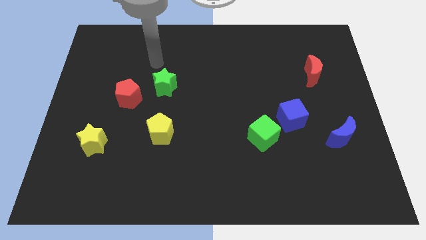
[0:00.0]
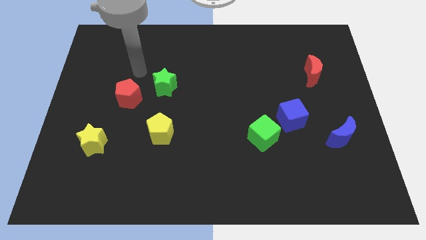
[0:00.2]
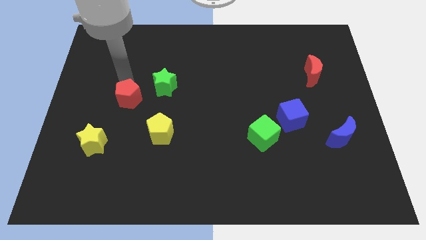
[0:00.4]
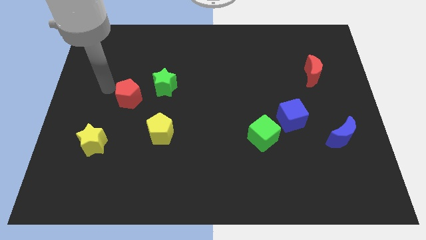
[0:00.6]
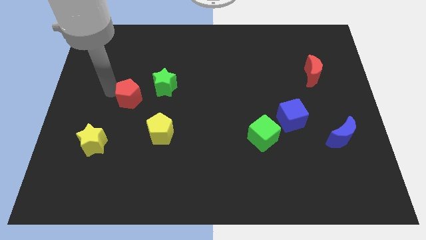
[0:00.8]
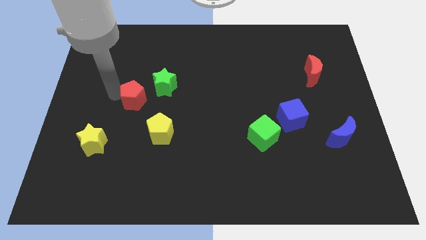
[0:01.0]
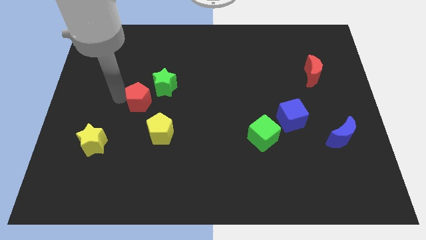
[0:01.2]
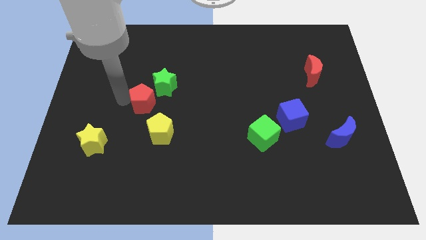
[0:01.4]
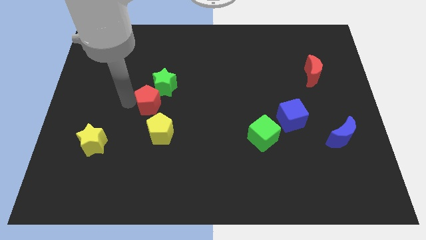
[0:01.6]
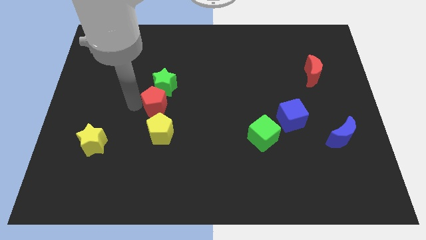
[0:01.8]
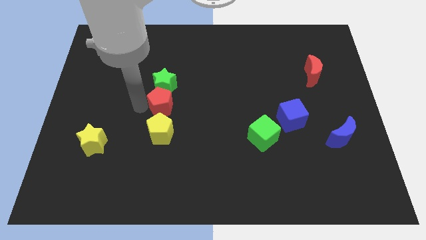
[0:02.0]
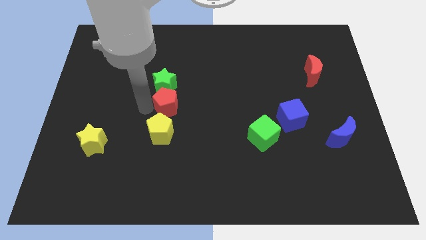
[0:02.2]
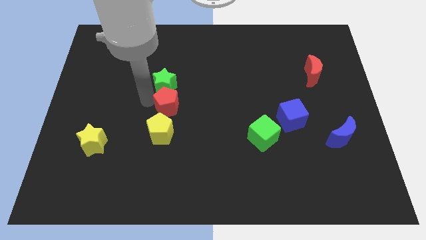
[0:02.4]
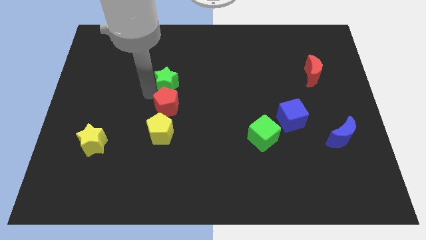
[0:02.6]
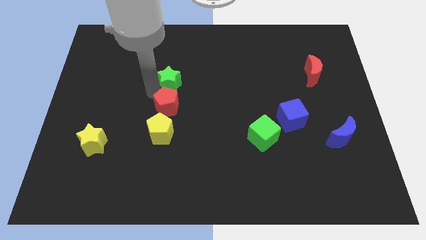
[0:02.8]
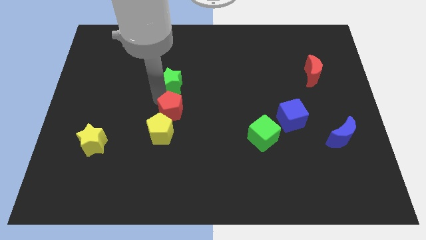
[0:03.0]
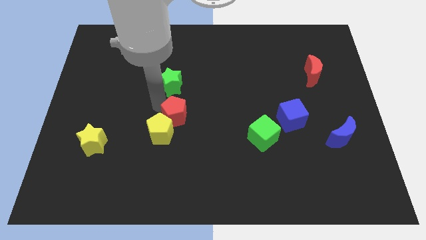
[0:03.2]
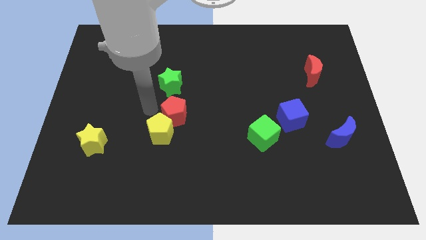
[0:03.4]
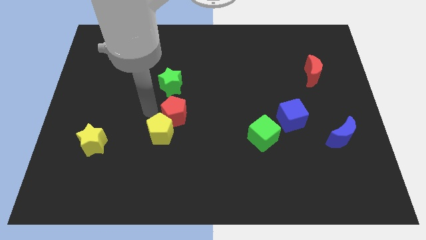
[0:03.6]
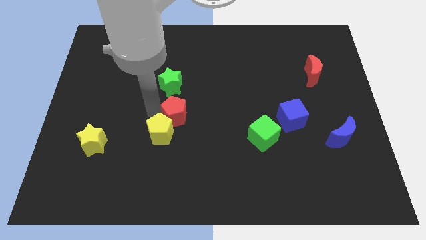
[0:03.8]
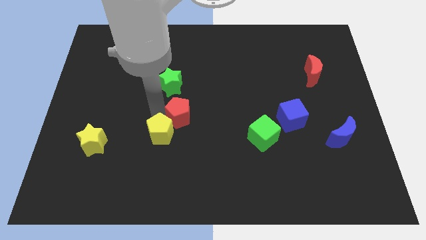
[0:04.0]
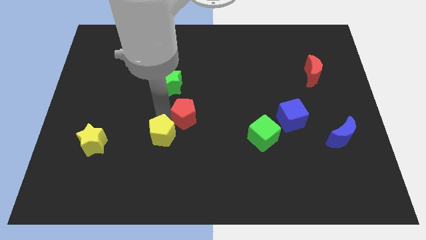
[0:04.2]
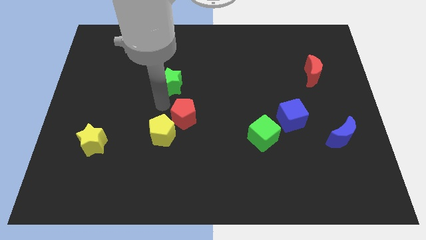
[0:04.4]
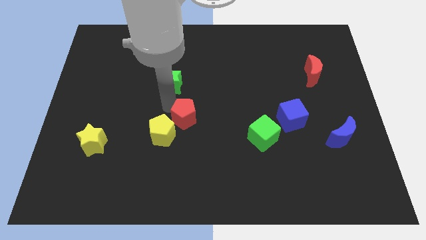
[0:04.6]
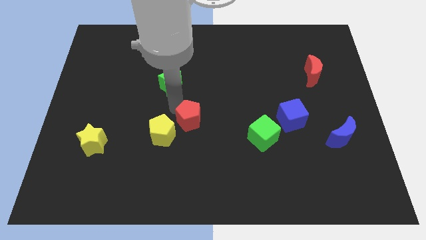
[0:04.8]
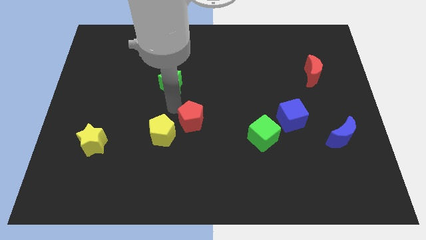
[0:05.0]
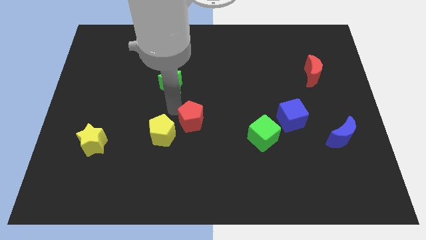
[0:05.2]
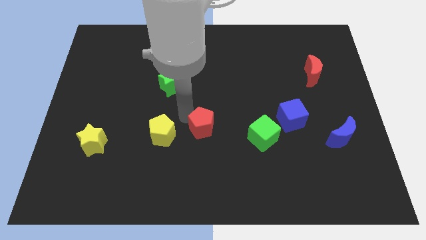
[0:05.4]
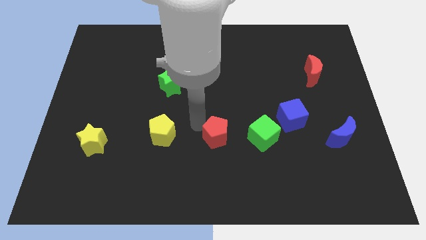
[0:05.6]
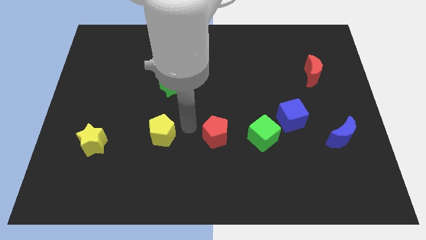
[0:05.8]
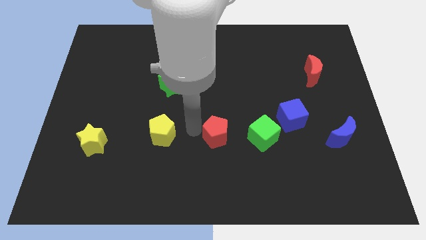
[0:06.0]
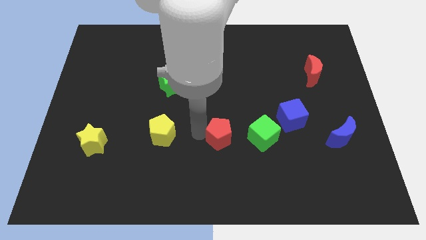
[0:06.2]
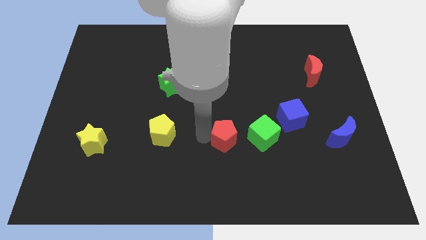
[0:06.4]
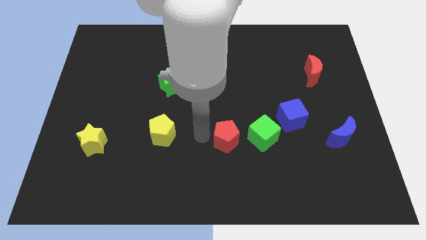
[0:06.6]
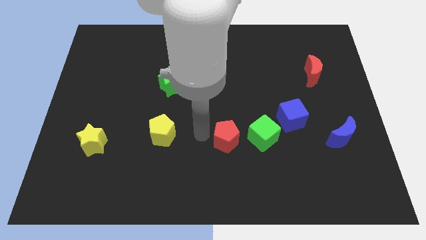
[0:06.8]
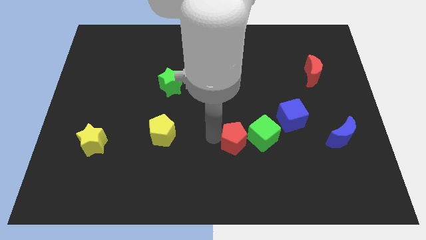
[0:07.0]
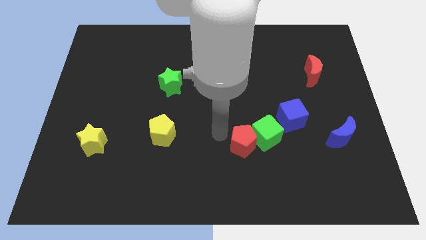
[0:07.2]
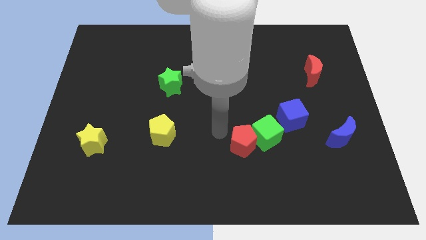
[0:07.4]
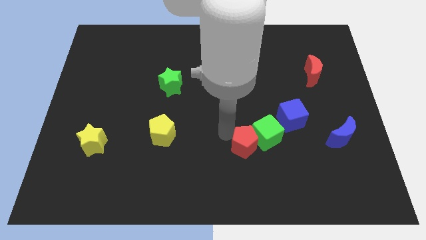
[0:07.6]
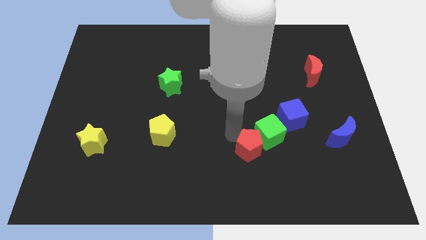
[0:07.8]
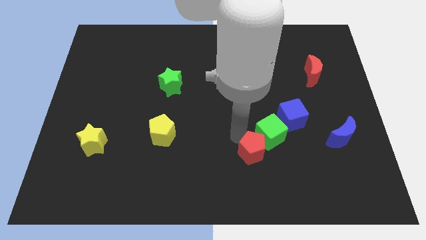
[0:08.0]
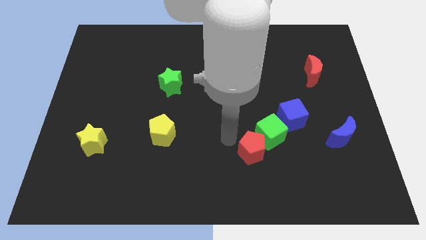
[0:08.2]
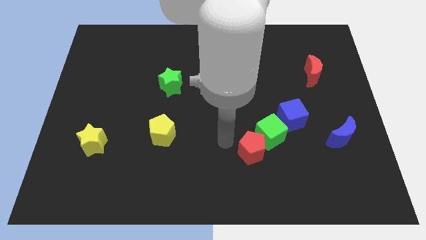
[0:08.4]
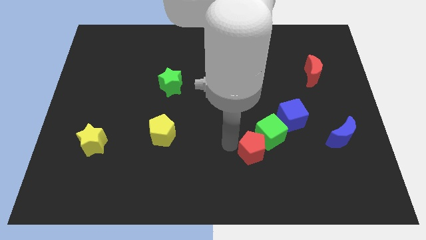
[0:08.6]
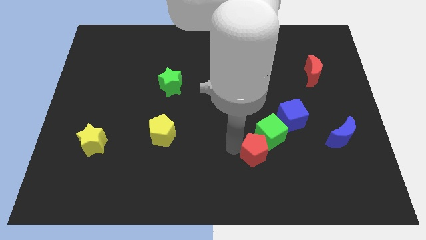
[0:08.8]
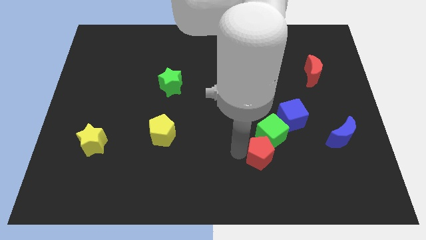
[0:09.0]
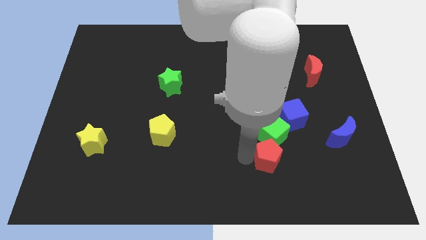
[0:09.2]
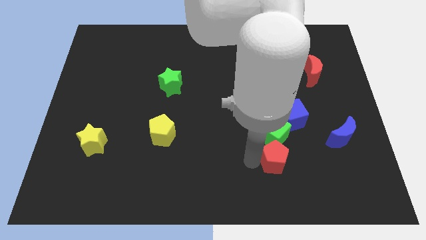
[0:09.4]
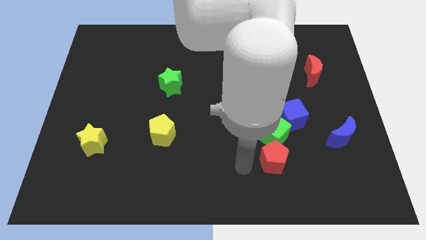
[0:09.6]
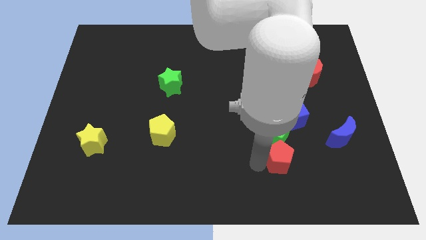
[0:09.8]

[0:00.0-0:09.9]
put the red pentagon to the bottom right of the green cube

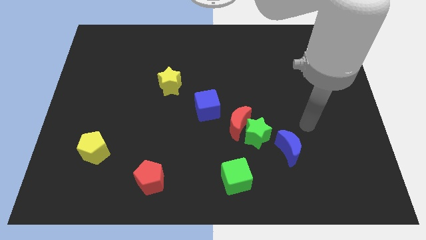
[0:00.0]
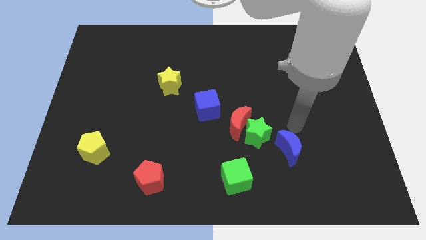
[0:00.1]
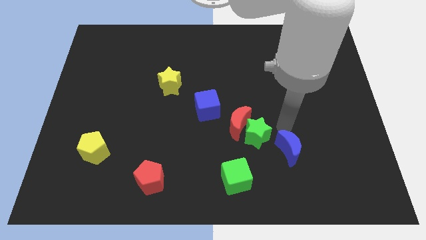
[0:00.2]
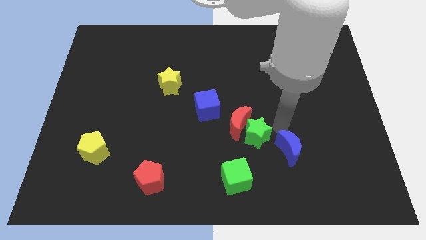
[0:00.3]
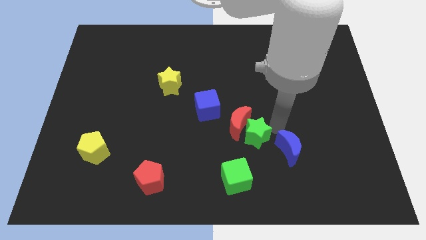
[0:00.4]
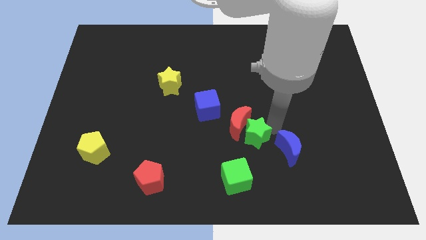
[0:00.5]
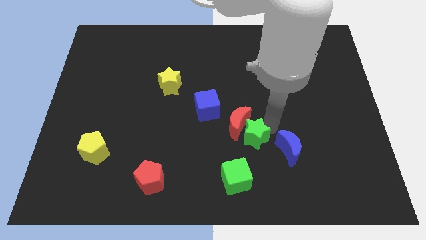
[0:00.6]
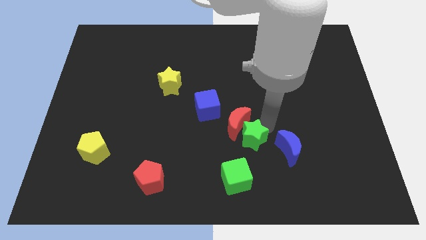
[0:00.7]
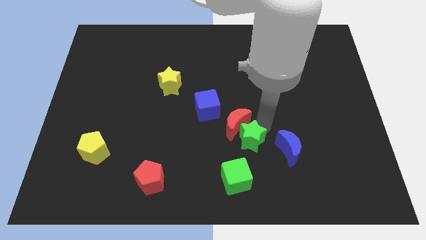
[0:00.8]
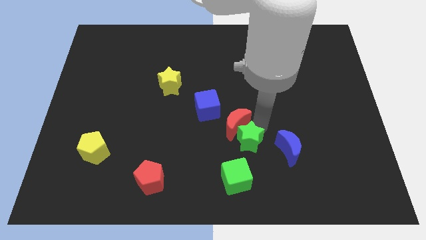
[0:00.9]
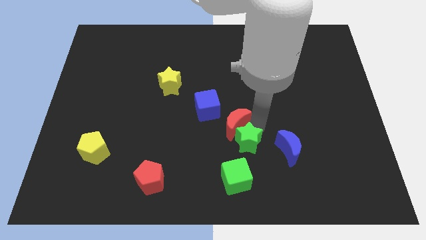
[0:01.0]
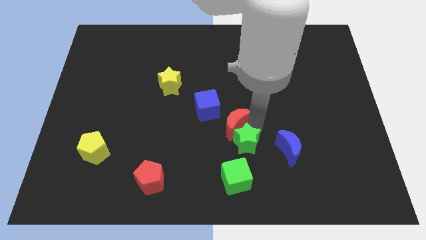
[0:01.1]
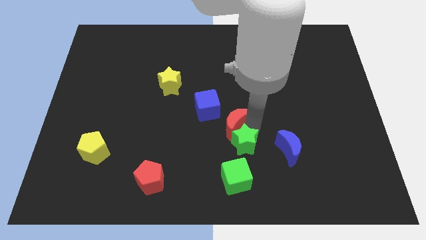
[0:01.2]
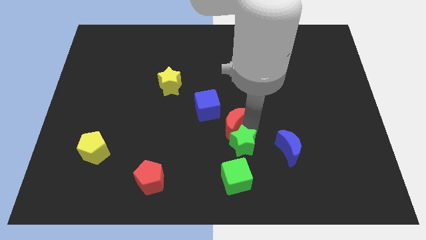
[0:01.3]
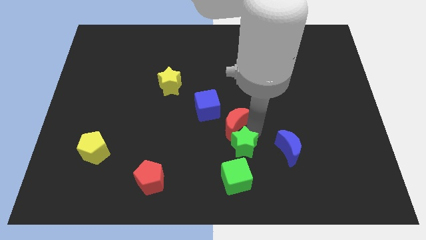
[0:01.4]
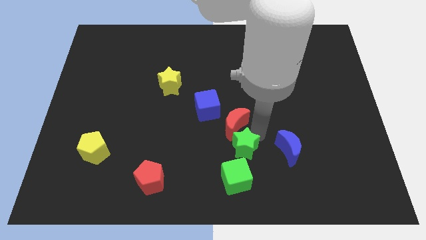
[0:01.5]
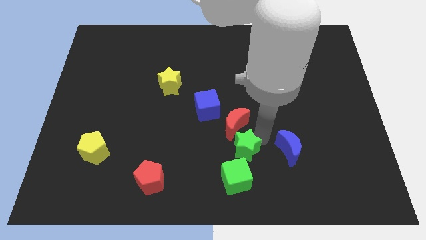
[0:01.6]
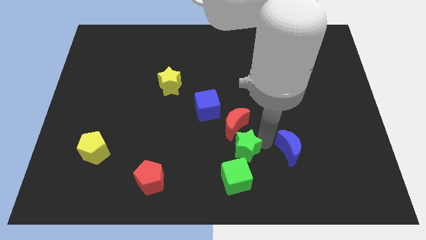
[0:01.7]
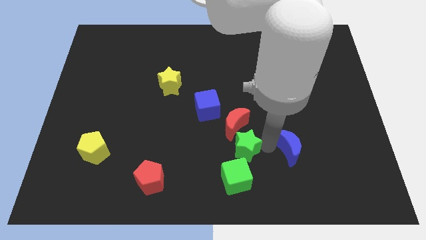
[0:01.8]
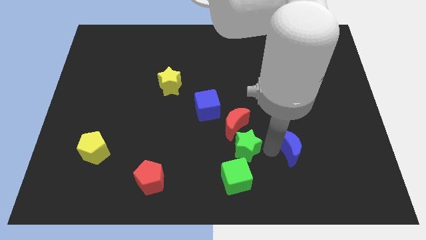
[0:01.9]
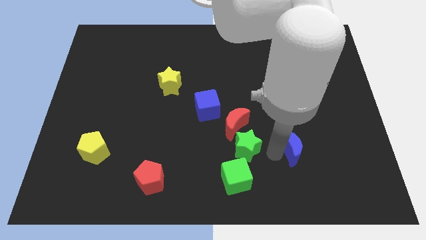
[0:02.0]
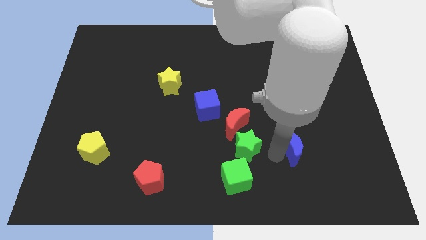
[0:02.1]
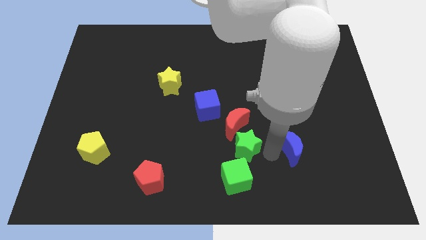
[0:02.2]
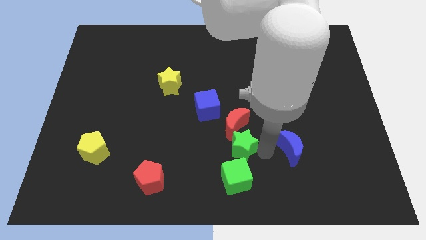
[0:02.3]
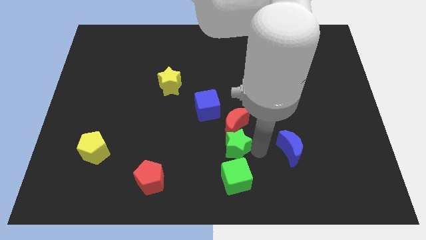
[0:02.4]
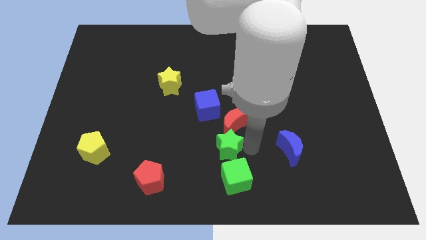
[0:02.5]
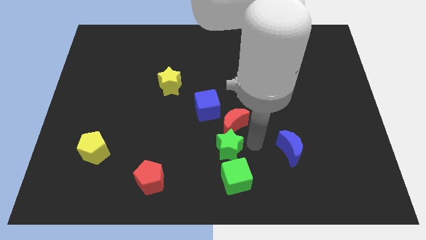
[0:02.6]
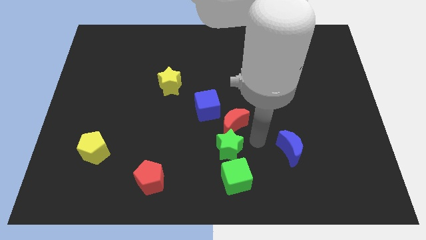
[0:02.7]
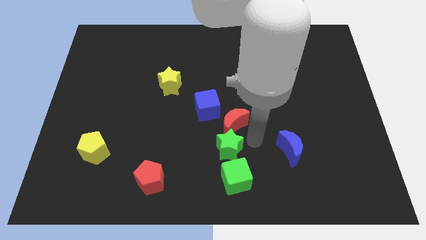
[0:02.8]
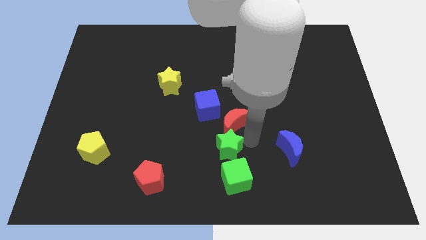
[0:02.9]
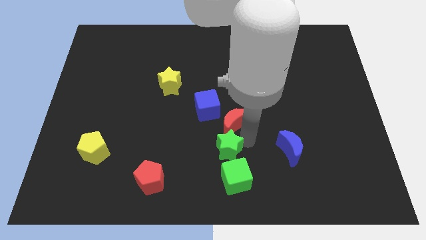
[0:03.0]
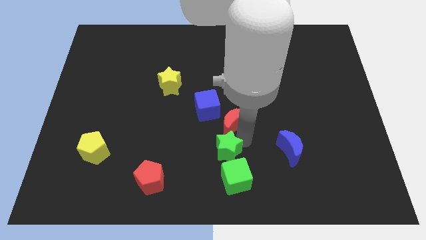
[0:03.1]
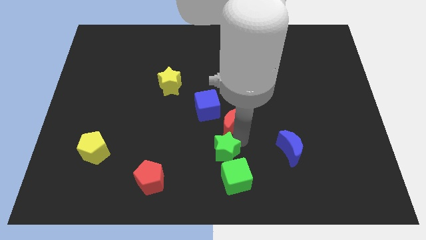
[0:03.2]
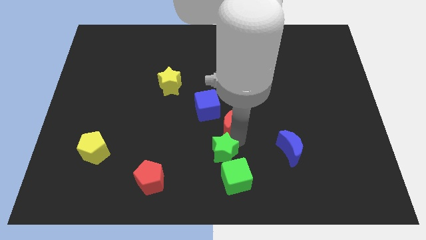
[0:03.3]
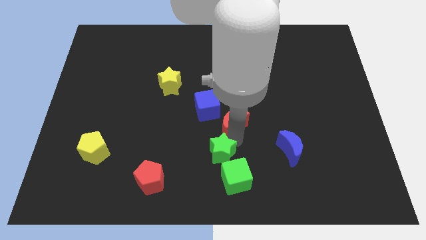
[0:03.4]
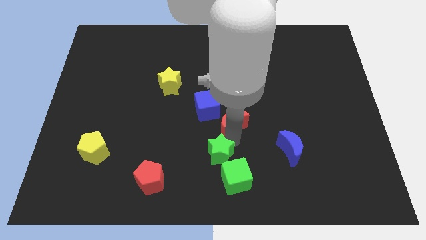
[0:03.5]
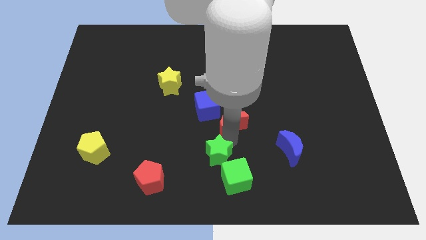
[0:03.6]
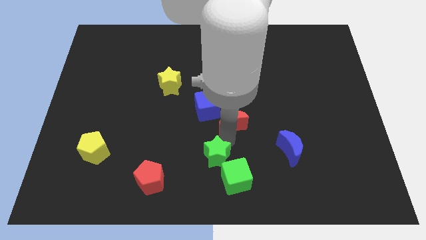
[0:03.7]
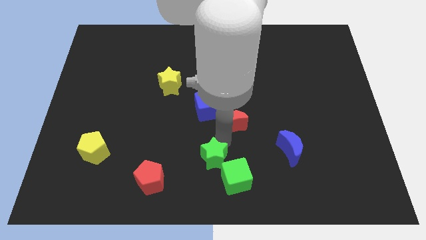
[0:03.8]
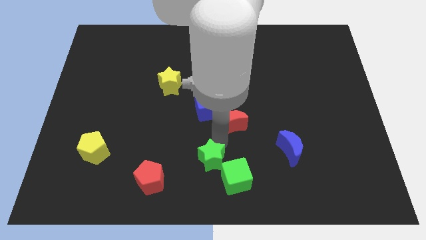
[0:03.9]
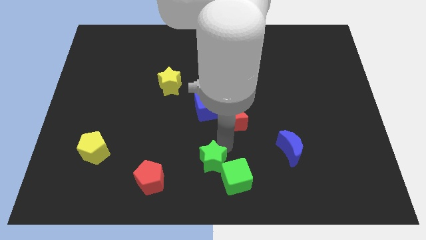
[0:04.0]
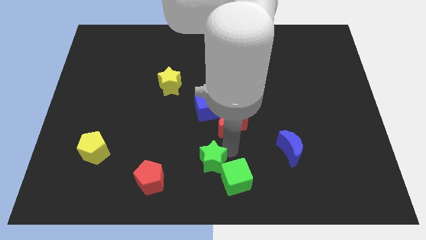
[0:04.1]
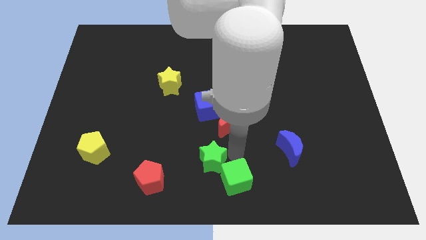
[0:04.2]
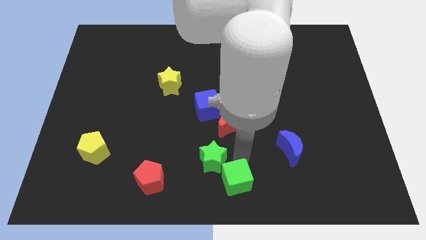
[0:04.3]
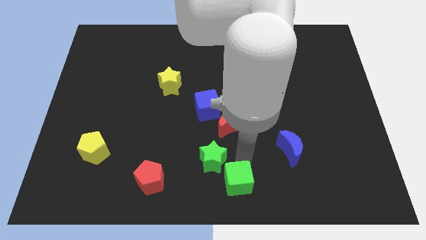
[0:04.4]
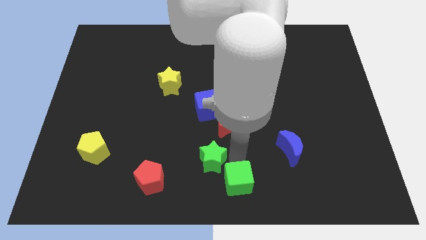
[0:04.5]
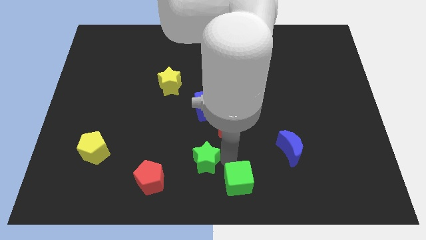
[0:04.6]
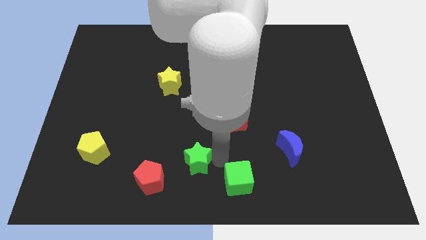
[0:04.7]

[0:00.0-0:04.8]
move the green star to the top right of the red pentagon
